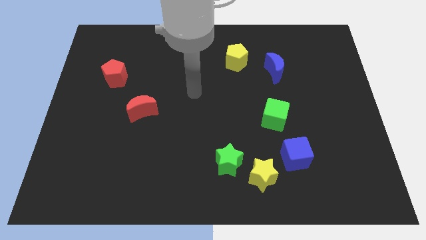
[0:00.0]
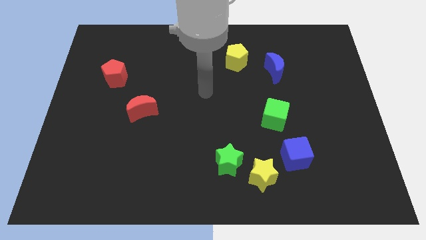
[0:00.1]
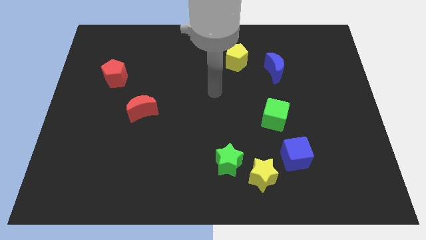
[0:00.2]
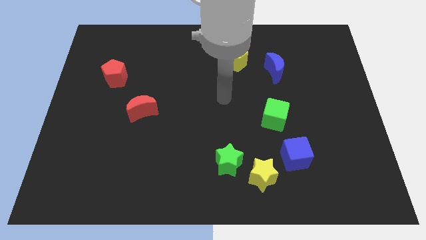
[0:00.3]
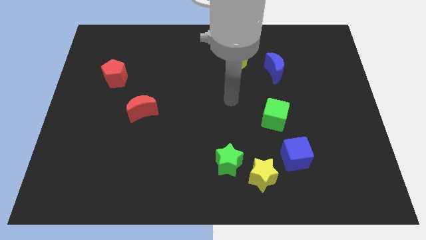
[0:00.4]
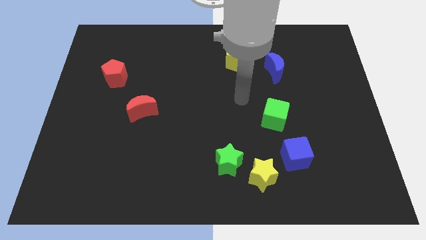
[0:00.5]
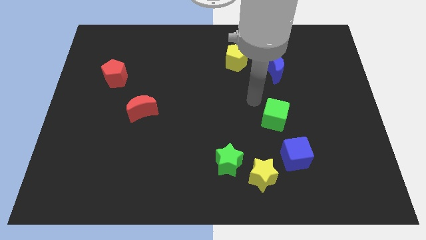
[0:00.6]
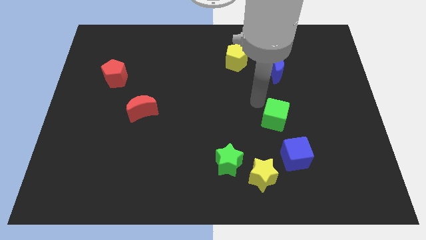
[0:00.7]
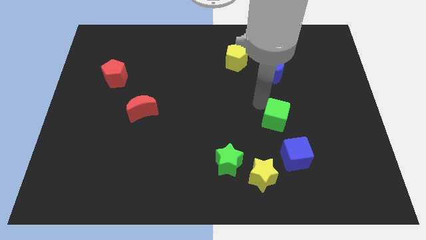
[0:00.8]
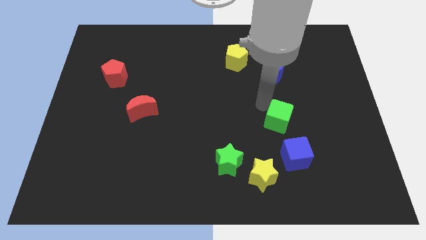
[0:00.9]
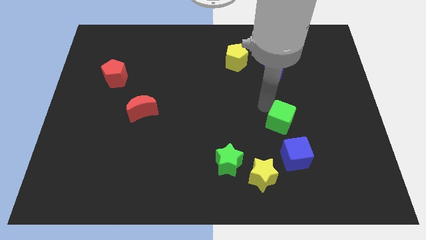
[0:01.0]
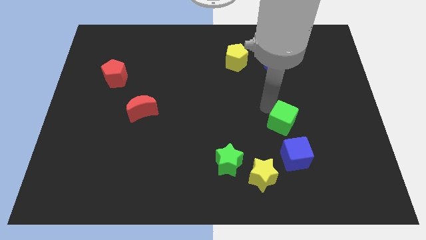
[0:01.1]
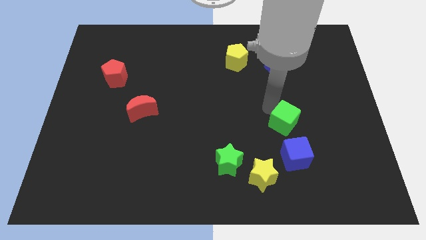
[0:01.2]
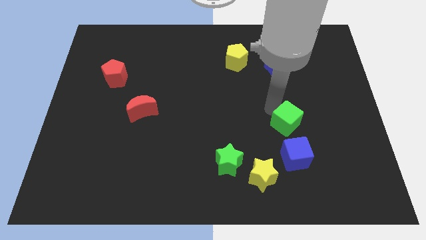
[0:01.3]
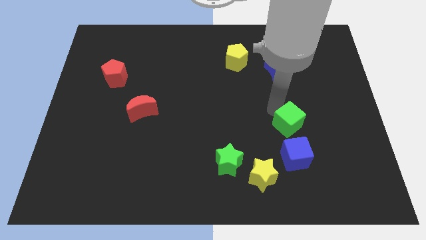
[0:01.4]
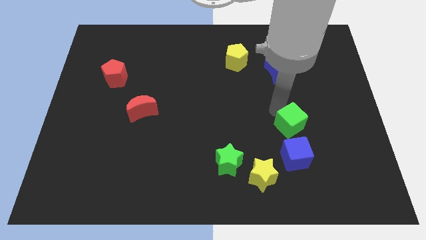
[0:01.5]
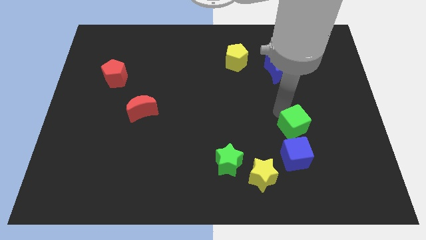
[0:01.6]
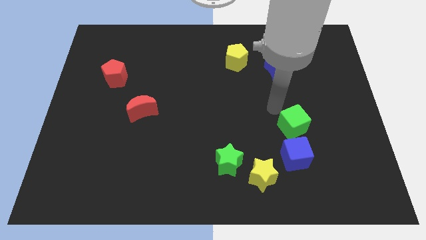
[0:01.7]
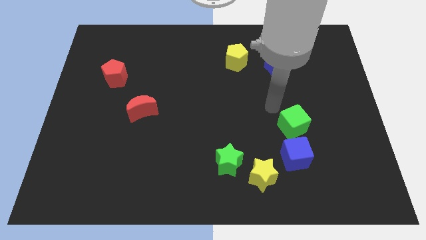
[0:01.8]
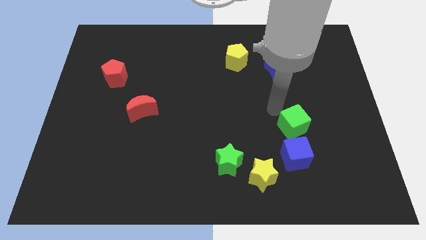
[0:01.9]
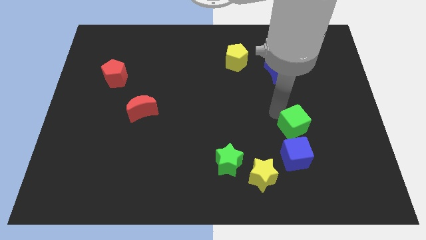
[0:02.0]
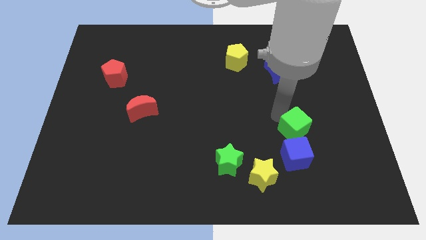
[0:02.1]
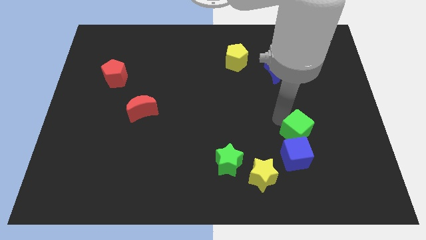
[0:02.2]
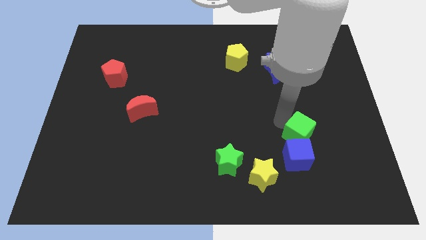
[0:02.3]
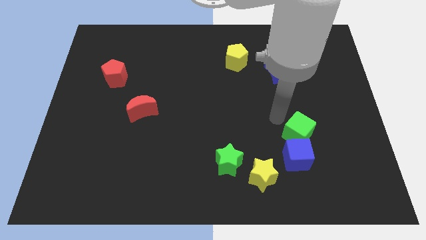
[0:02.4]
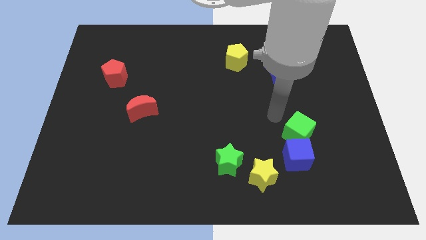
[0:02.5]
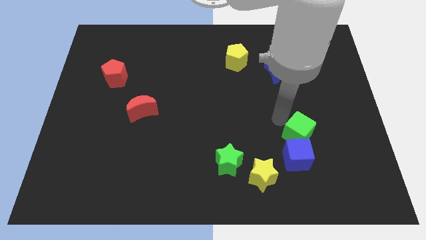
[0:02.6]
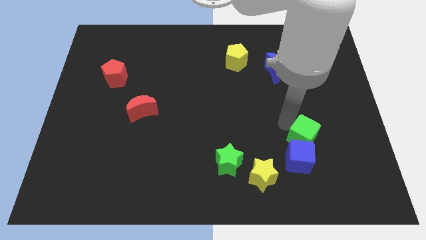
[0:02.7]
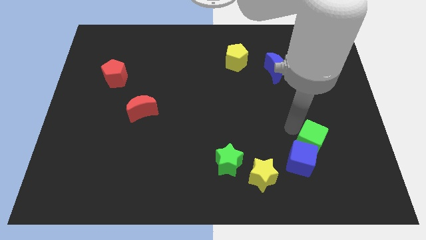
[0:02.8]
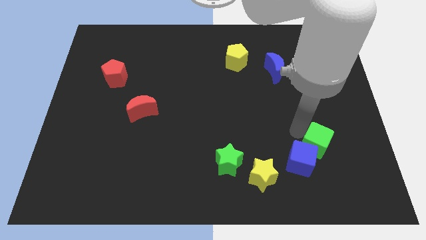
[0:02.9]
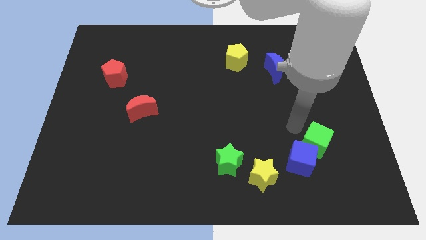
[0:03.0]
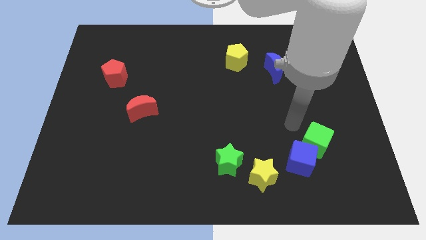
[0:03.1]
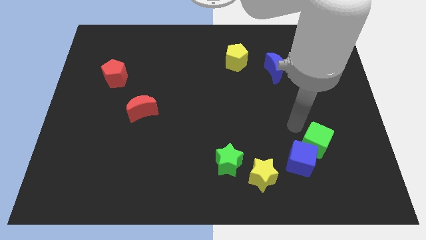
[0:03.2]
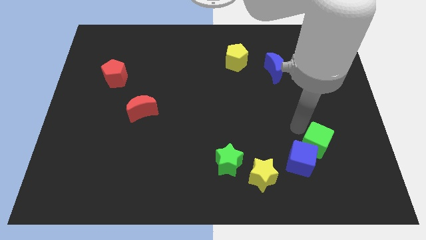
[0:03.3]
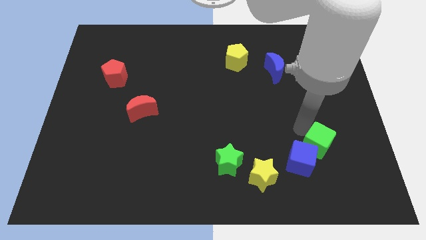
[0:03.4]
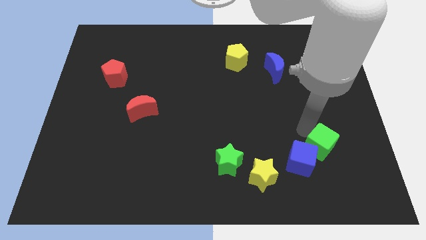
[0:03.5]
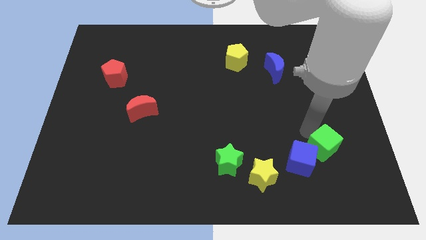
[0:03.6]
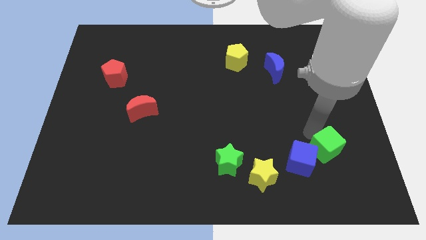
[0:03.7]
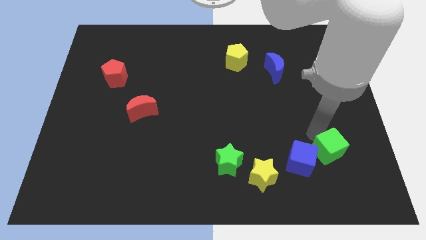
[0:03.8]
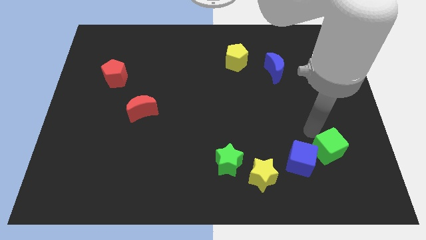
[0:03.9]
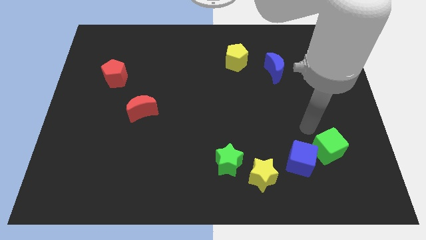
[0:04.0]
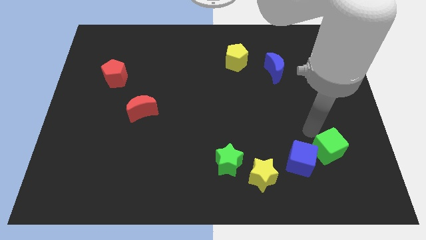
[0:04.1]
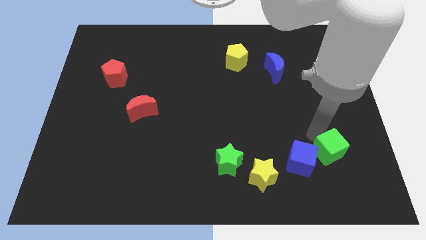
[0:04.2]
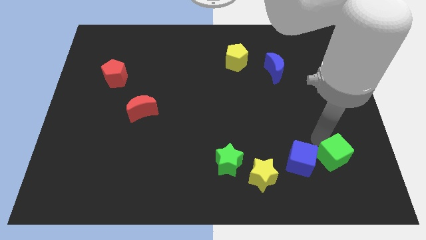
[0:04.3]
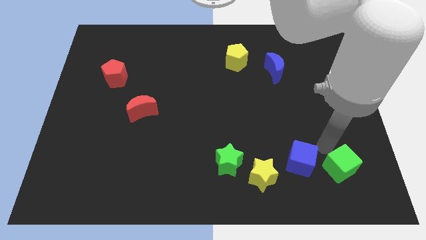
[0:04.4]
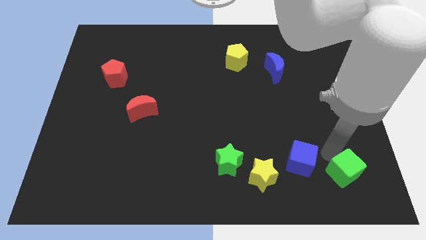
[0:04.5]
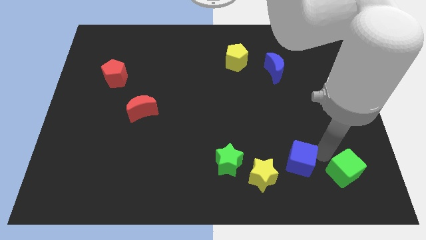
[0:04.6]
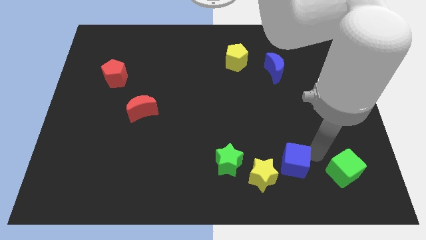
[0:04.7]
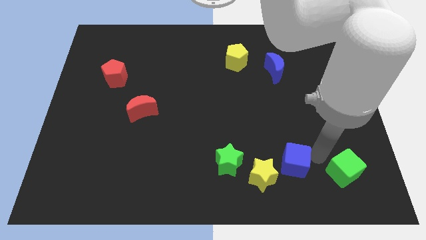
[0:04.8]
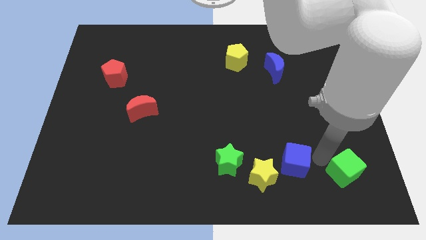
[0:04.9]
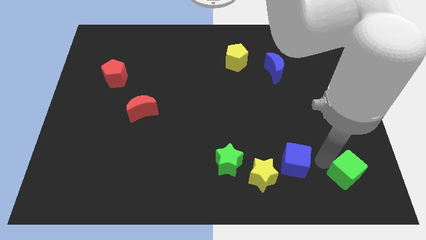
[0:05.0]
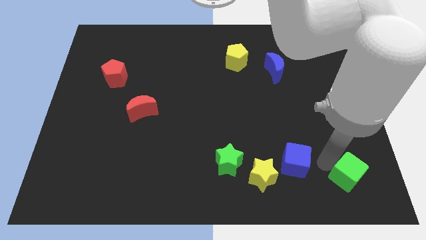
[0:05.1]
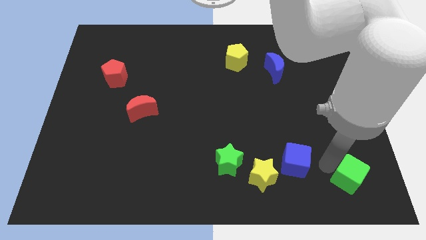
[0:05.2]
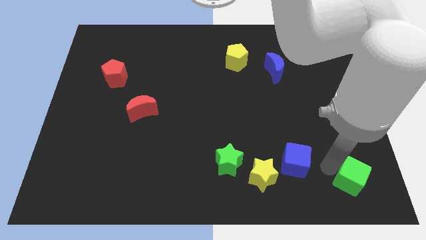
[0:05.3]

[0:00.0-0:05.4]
push the green cube to the bottom right of the board

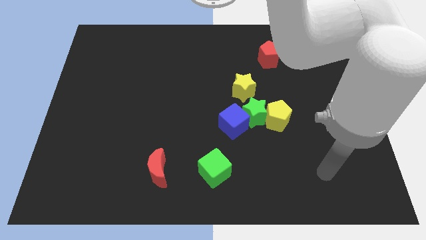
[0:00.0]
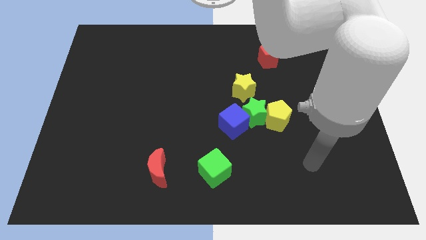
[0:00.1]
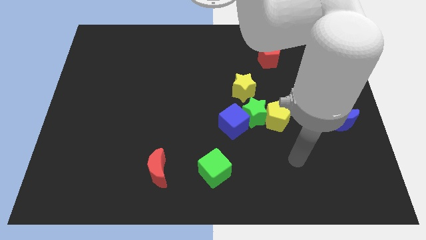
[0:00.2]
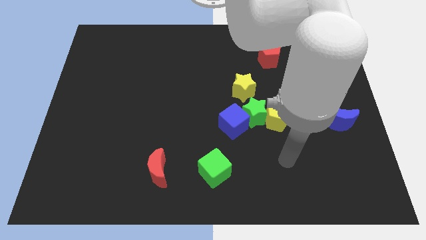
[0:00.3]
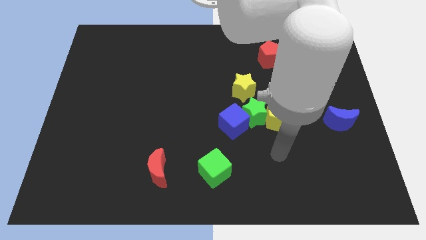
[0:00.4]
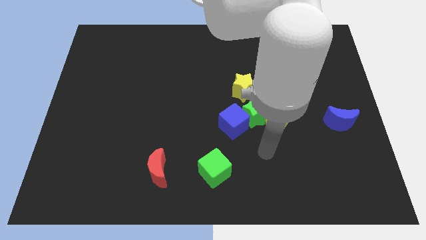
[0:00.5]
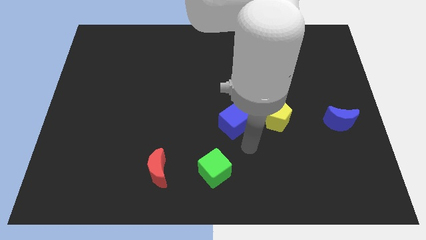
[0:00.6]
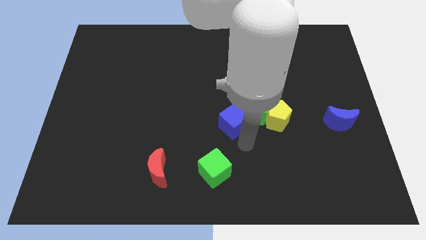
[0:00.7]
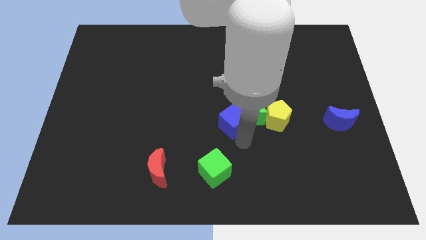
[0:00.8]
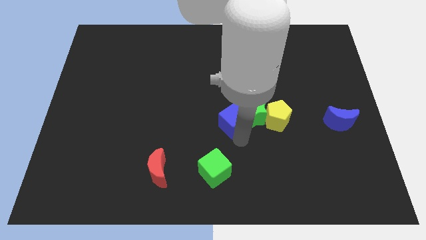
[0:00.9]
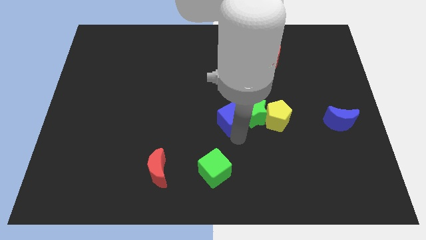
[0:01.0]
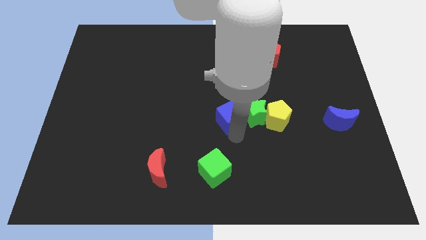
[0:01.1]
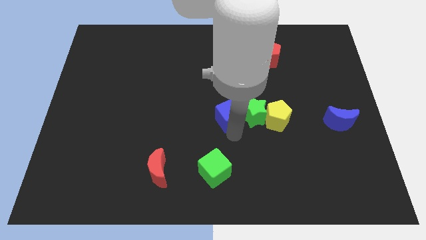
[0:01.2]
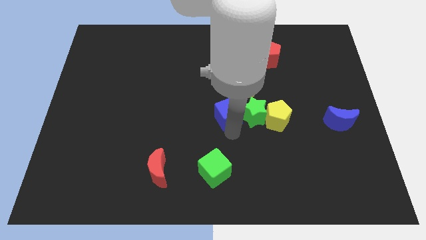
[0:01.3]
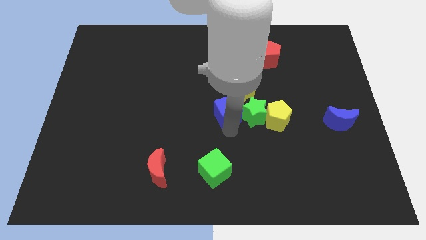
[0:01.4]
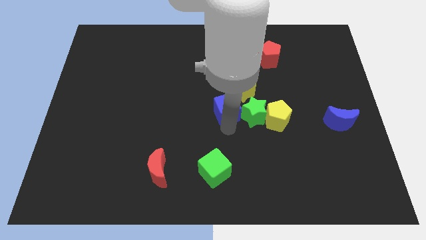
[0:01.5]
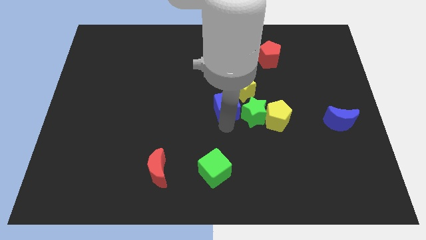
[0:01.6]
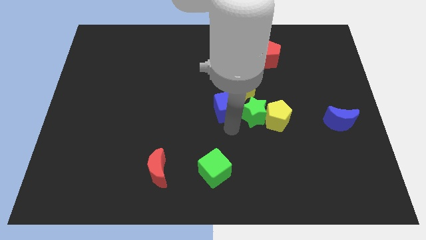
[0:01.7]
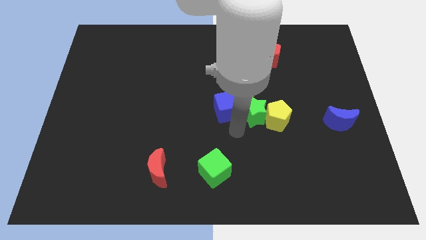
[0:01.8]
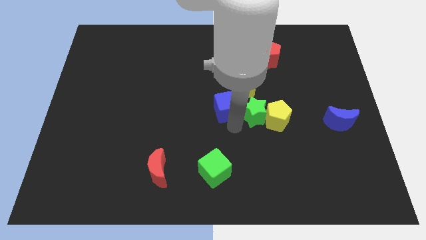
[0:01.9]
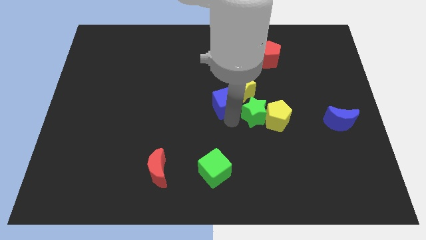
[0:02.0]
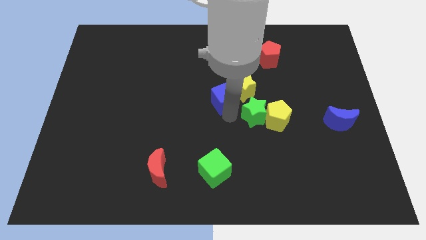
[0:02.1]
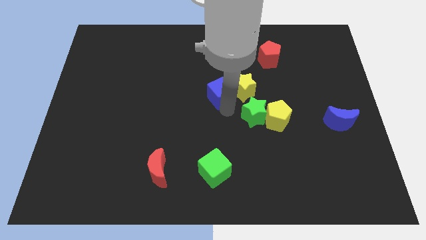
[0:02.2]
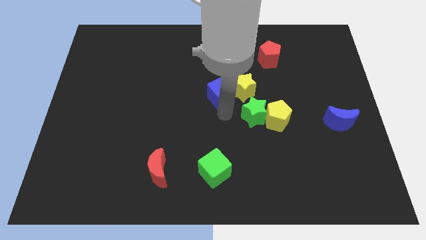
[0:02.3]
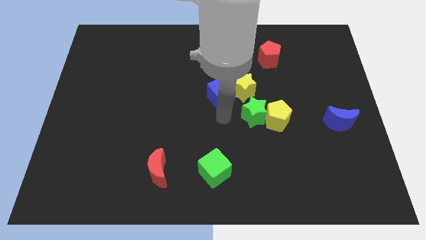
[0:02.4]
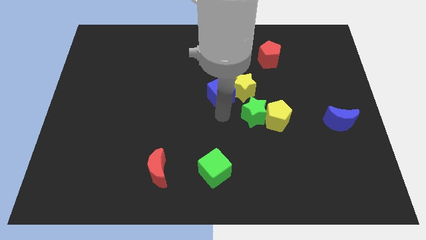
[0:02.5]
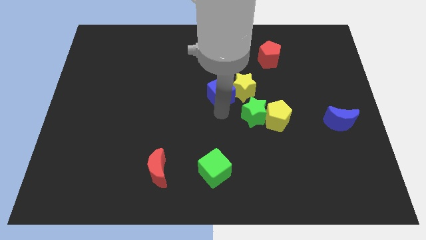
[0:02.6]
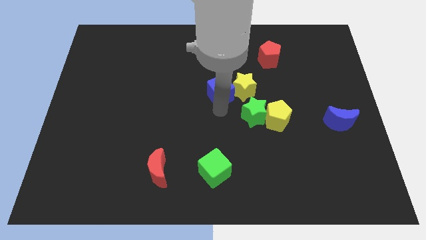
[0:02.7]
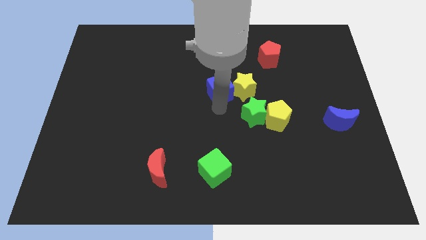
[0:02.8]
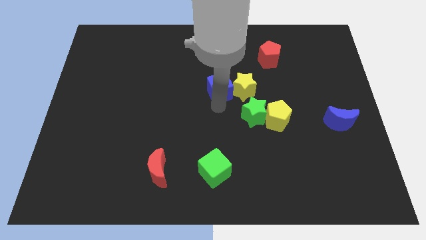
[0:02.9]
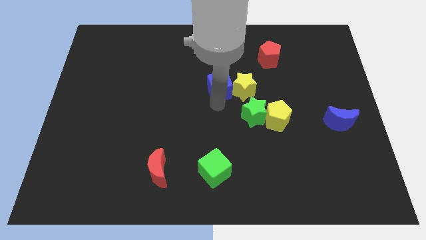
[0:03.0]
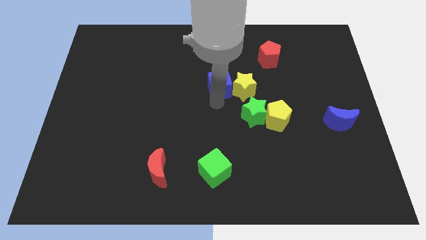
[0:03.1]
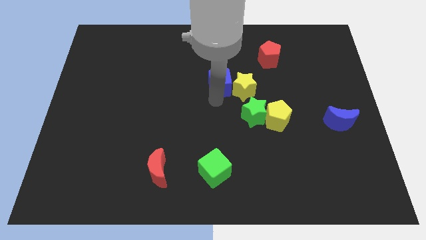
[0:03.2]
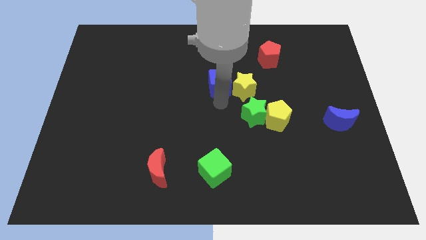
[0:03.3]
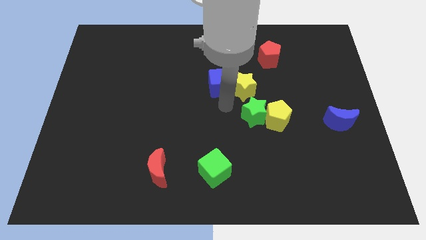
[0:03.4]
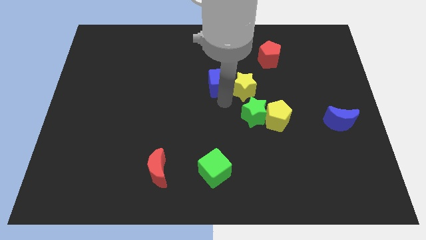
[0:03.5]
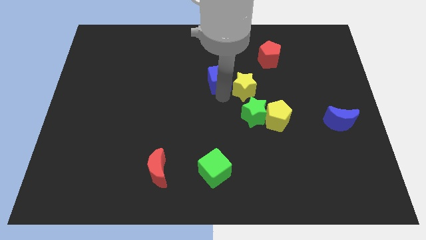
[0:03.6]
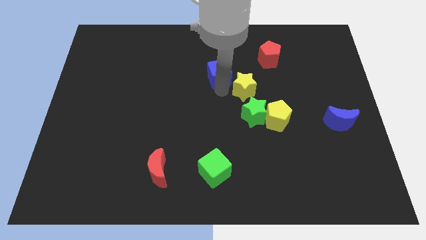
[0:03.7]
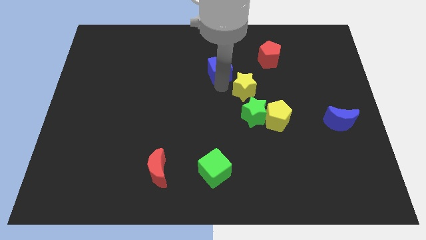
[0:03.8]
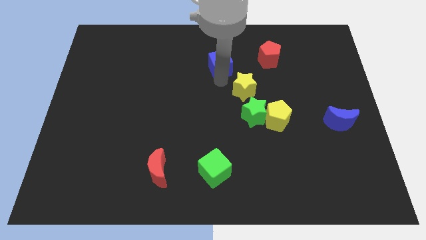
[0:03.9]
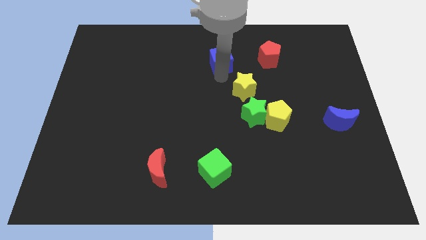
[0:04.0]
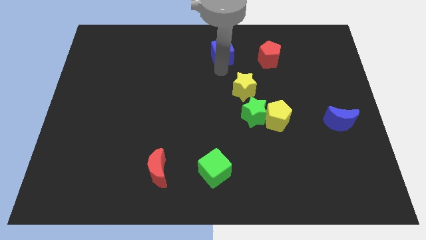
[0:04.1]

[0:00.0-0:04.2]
put the blue cube to the top
